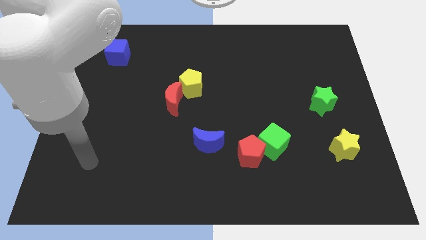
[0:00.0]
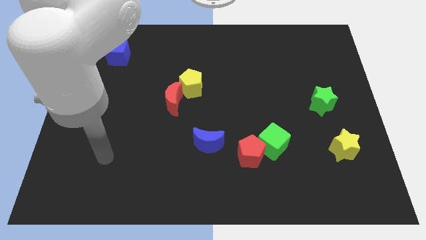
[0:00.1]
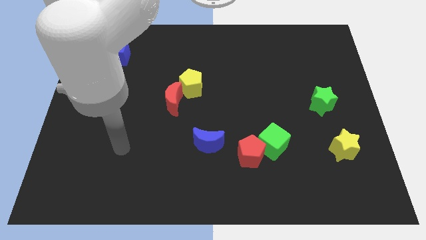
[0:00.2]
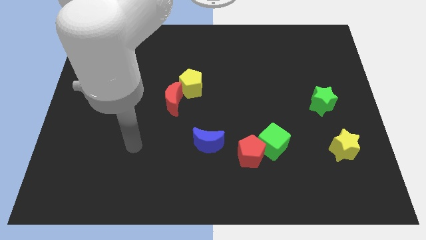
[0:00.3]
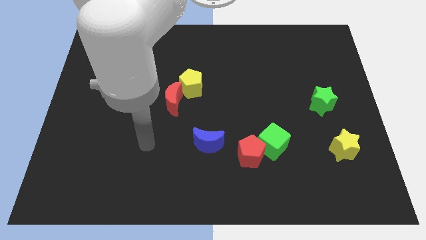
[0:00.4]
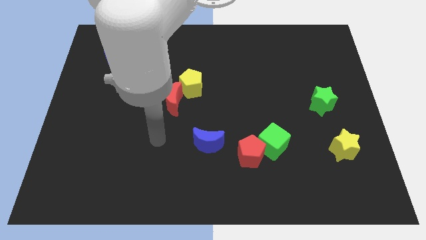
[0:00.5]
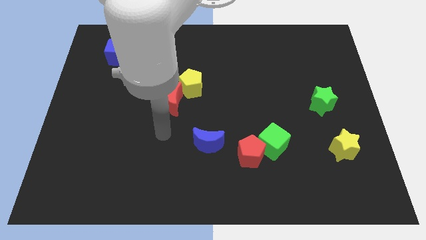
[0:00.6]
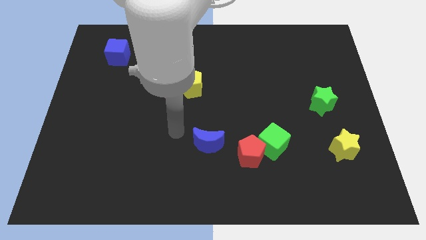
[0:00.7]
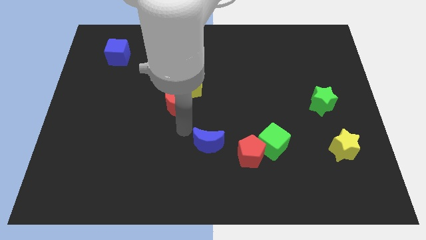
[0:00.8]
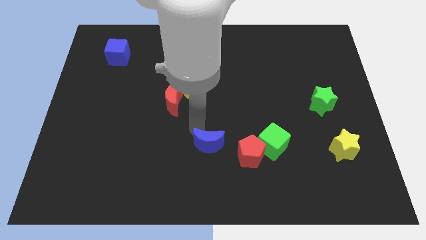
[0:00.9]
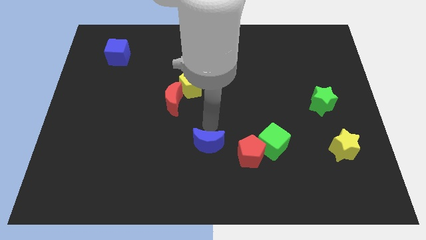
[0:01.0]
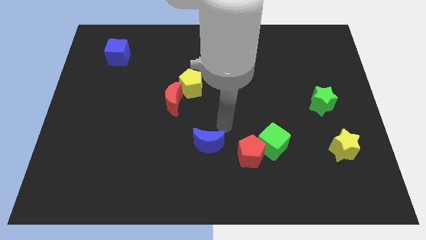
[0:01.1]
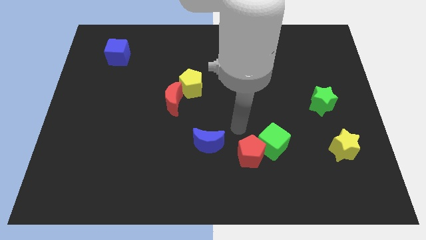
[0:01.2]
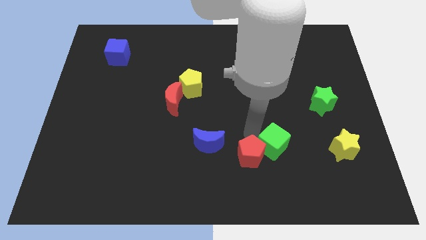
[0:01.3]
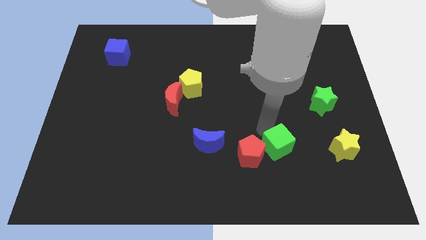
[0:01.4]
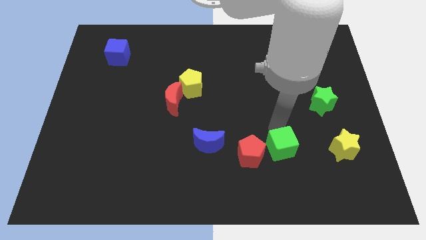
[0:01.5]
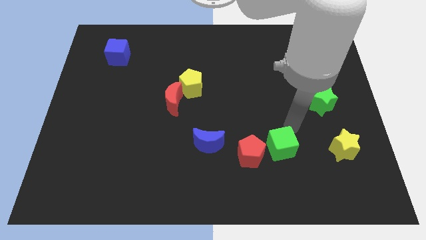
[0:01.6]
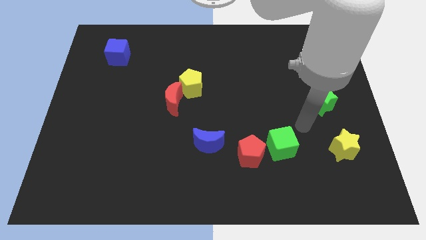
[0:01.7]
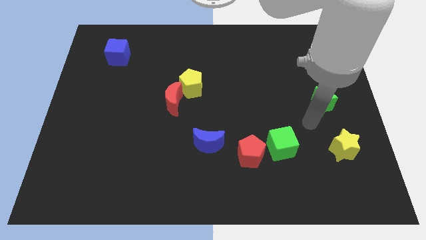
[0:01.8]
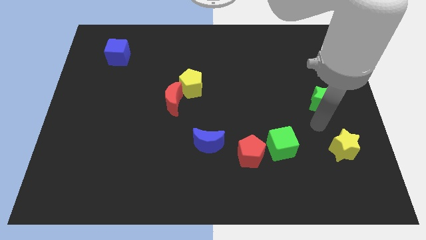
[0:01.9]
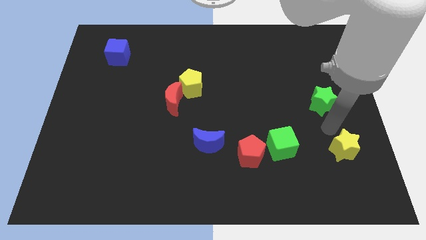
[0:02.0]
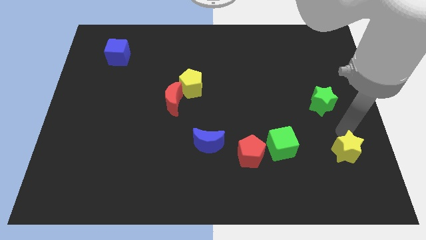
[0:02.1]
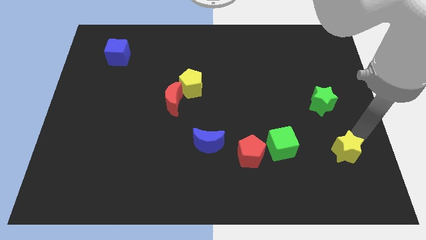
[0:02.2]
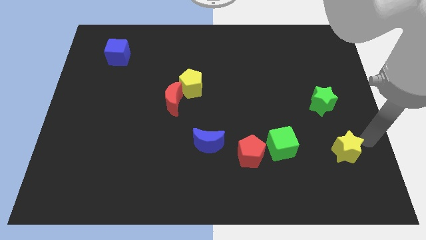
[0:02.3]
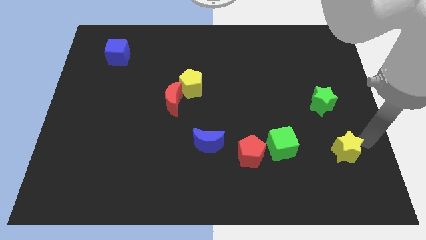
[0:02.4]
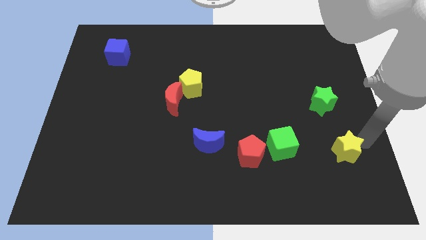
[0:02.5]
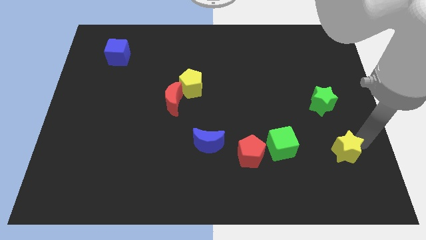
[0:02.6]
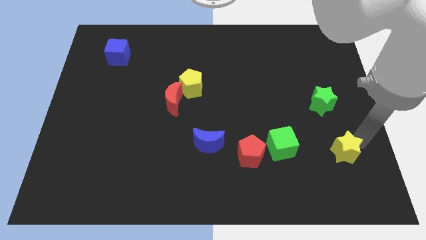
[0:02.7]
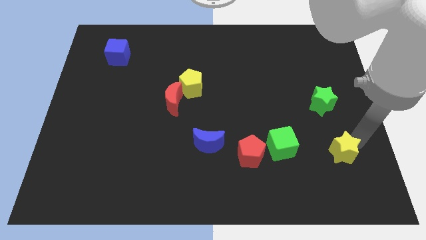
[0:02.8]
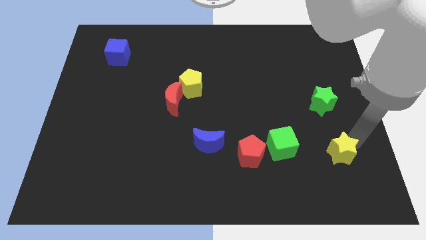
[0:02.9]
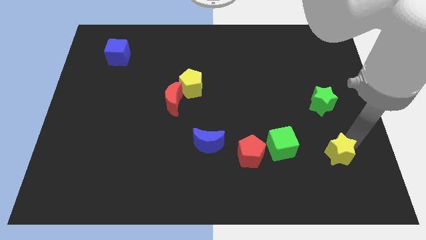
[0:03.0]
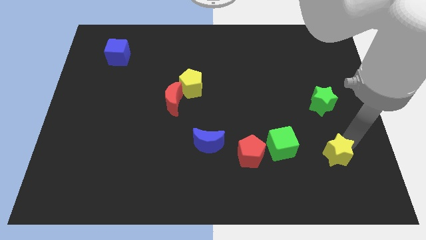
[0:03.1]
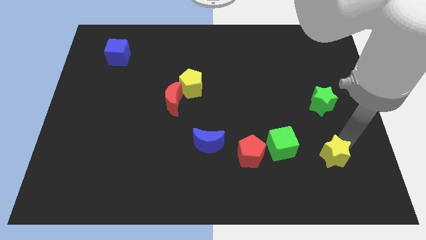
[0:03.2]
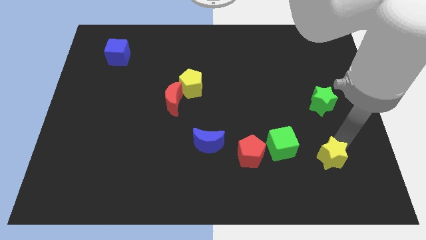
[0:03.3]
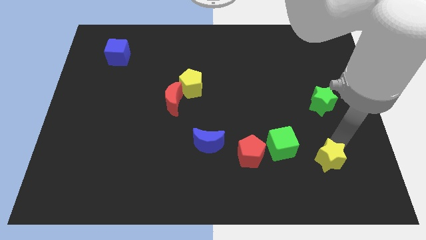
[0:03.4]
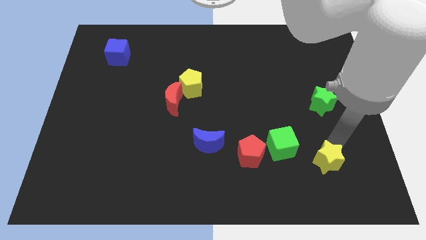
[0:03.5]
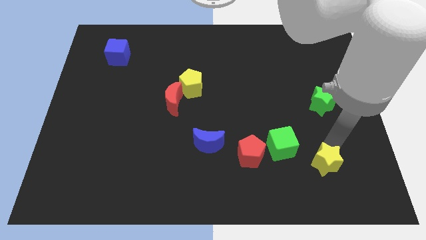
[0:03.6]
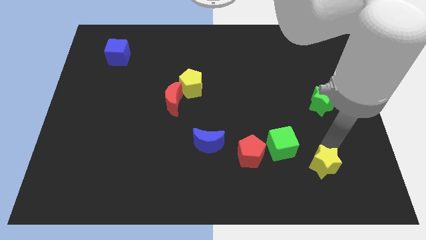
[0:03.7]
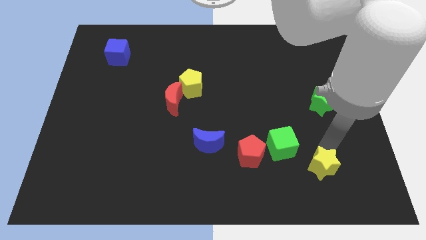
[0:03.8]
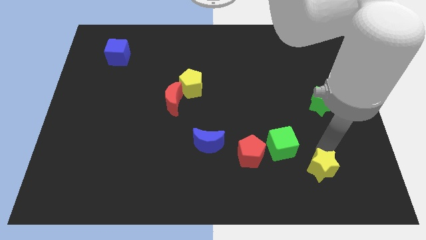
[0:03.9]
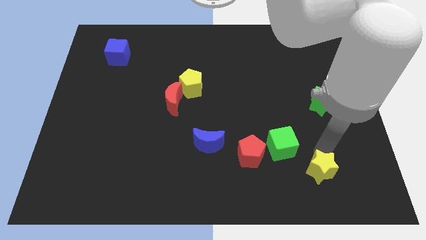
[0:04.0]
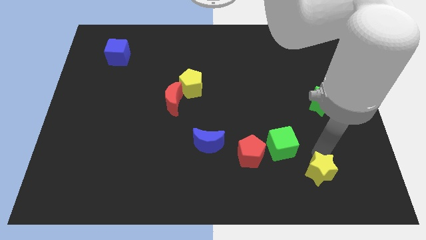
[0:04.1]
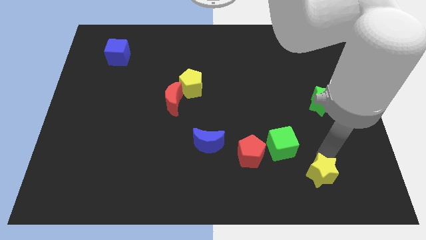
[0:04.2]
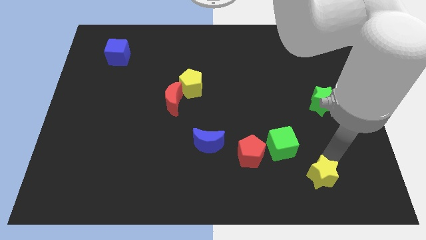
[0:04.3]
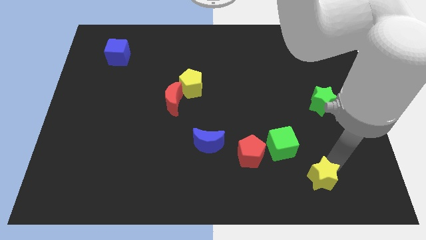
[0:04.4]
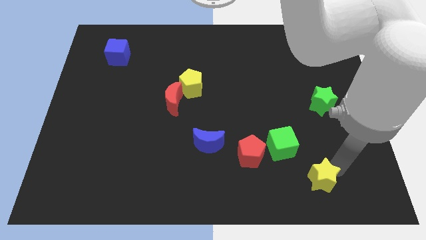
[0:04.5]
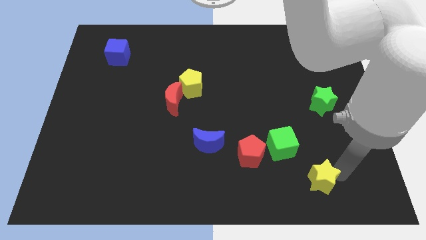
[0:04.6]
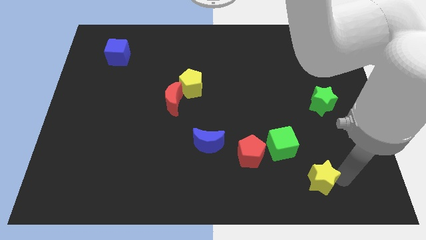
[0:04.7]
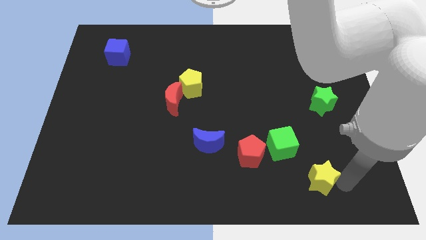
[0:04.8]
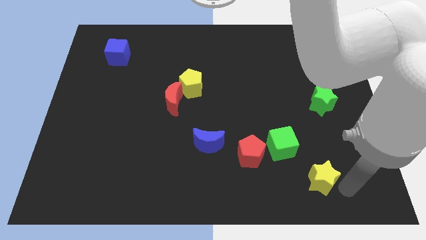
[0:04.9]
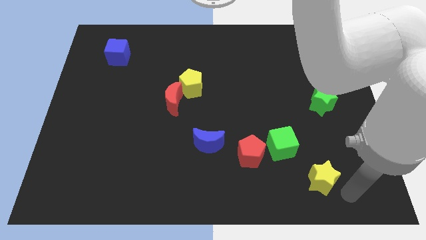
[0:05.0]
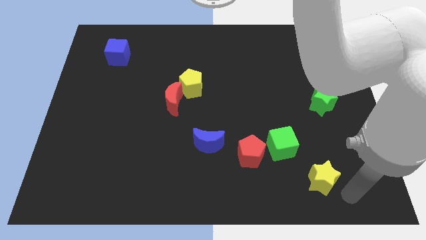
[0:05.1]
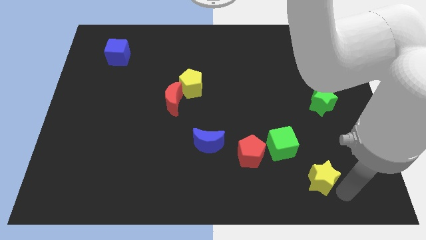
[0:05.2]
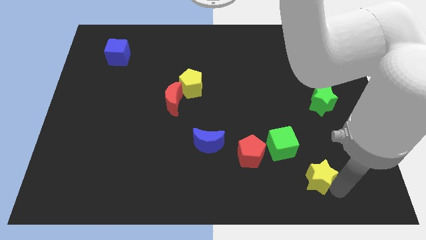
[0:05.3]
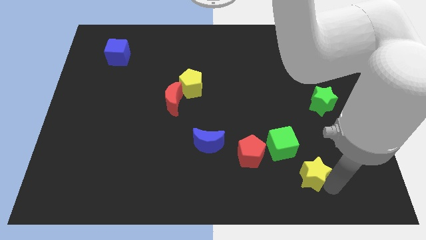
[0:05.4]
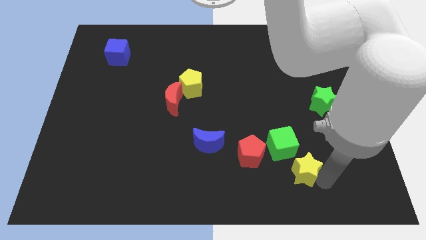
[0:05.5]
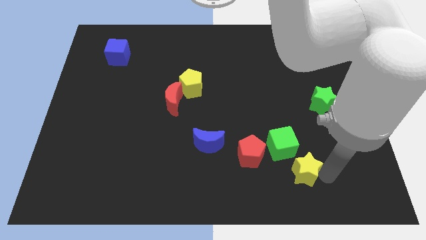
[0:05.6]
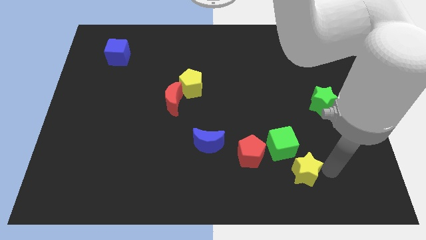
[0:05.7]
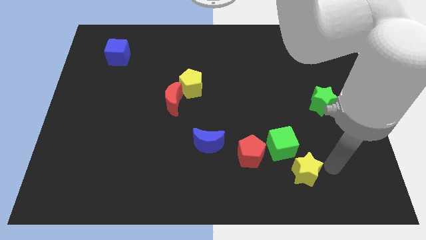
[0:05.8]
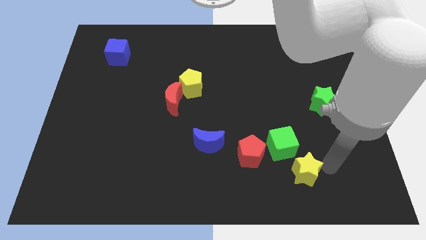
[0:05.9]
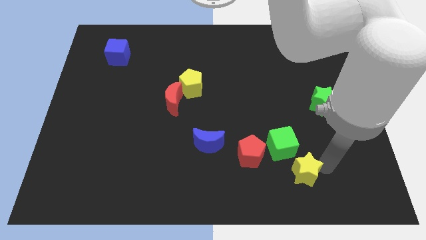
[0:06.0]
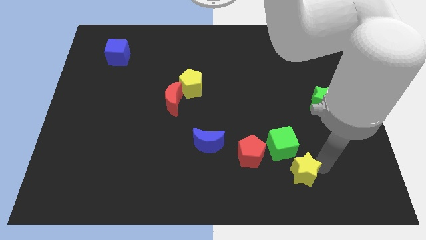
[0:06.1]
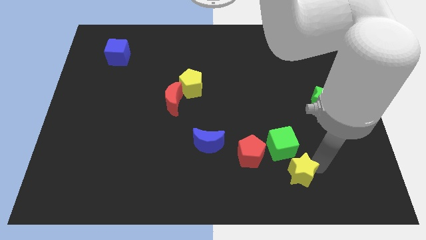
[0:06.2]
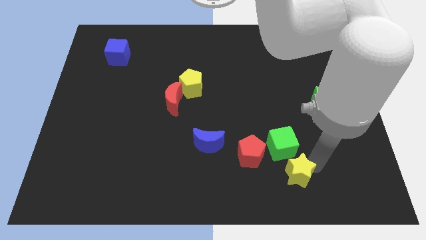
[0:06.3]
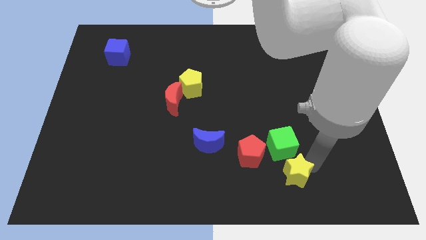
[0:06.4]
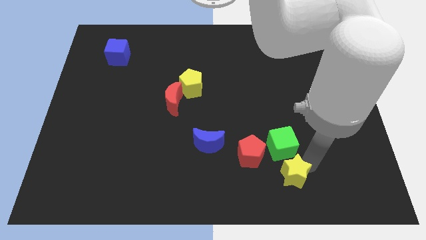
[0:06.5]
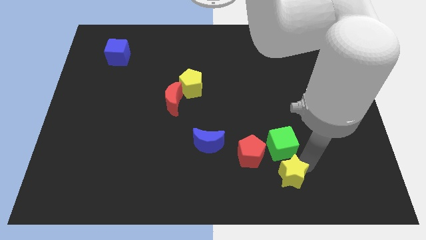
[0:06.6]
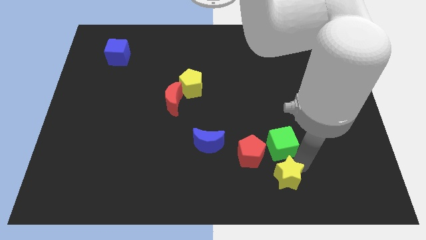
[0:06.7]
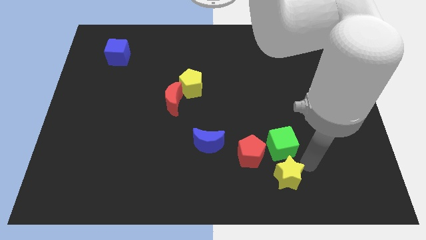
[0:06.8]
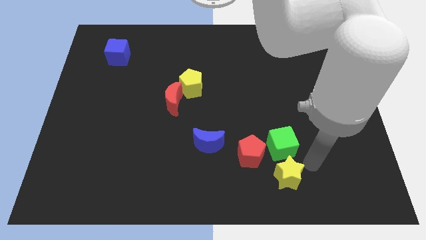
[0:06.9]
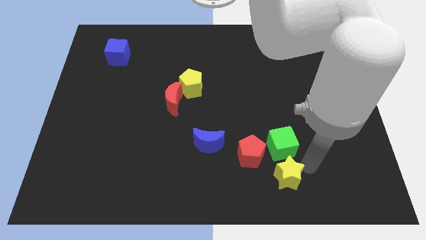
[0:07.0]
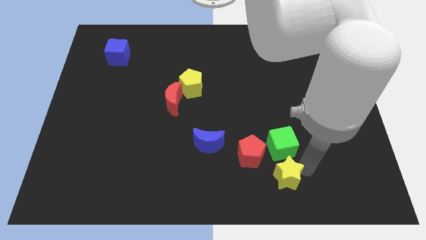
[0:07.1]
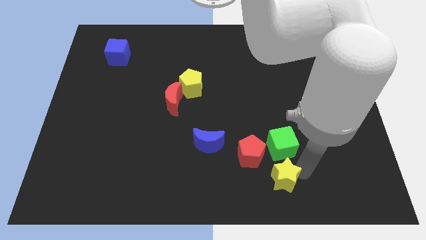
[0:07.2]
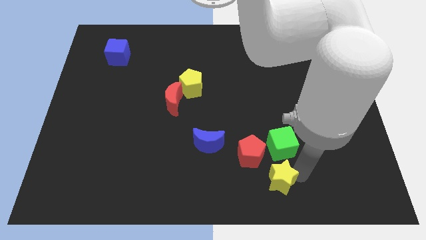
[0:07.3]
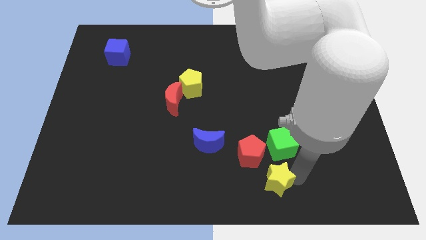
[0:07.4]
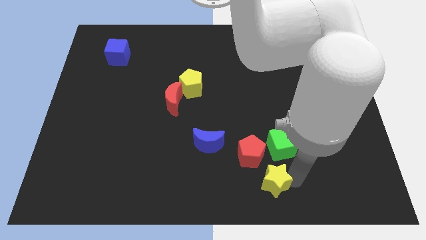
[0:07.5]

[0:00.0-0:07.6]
put the yellow star to the bottom side
